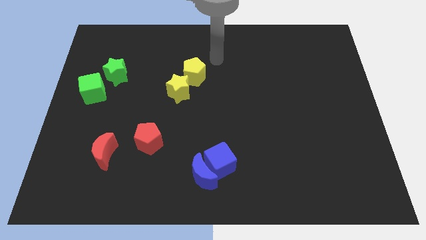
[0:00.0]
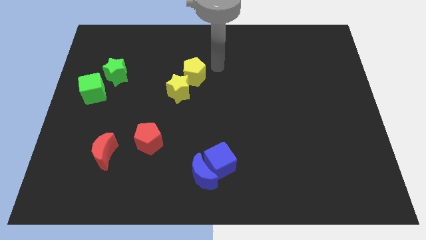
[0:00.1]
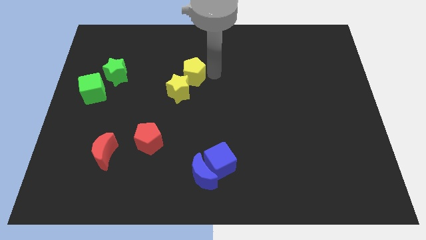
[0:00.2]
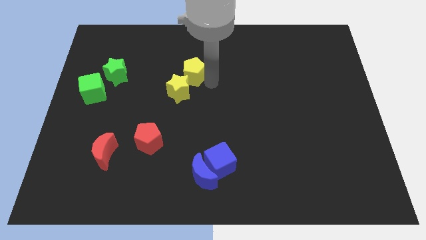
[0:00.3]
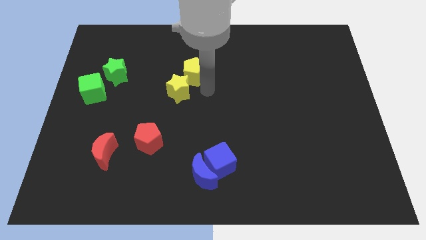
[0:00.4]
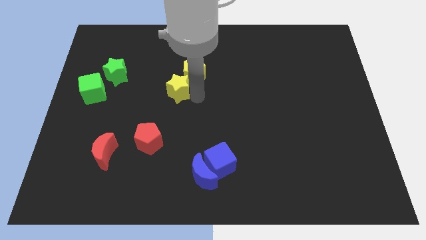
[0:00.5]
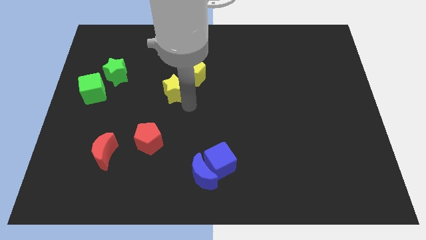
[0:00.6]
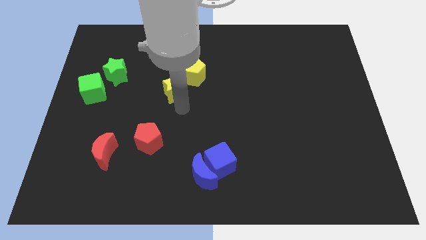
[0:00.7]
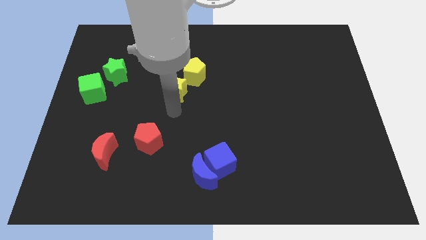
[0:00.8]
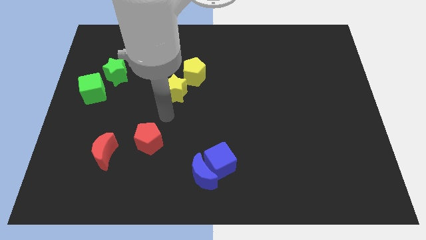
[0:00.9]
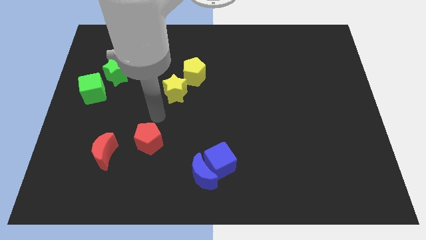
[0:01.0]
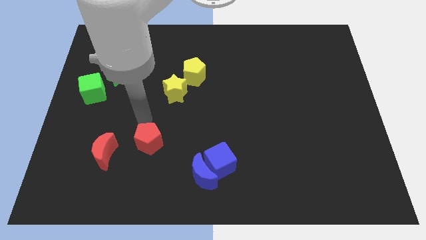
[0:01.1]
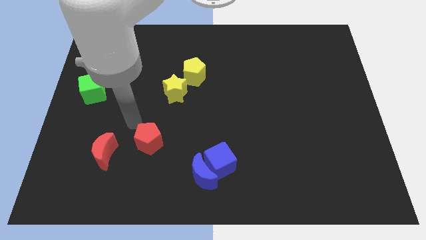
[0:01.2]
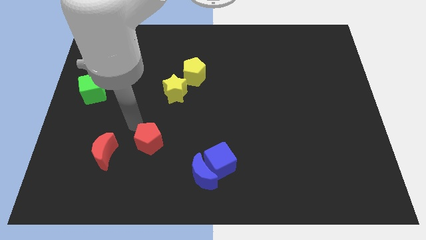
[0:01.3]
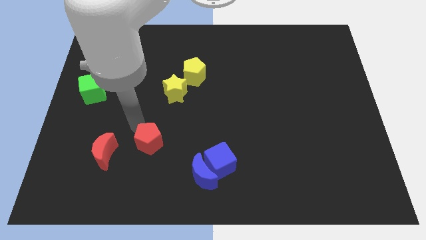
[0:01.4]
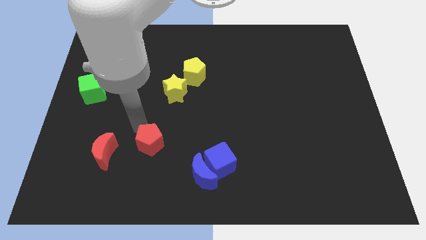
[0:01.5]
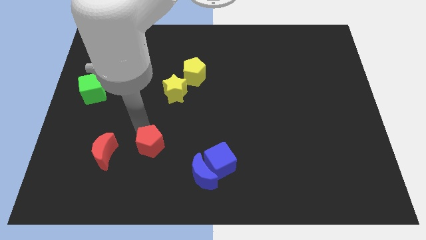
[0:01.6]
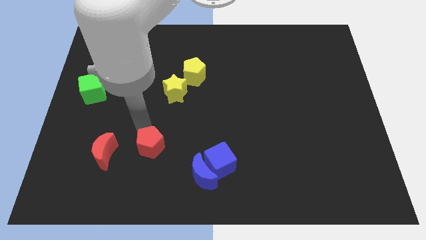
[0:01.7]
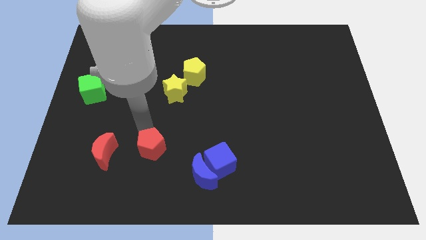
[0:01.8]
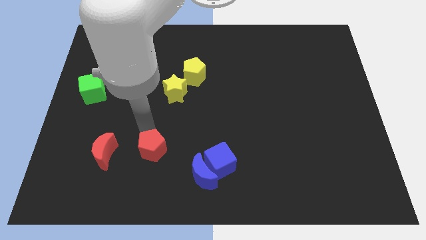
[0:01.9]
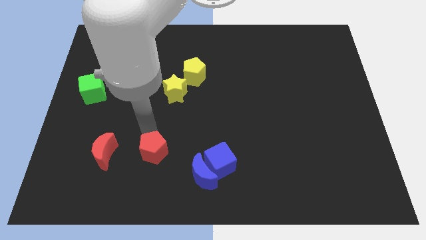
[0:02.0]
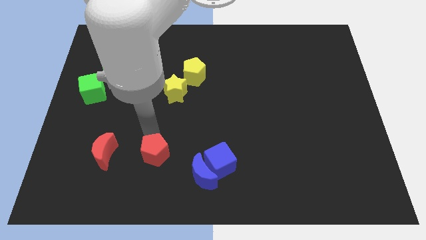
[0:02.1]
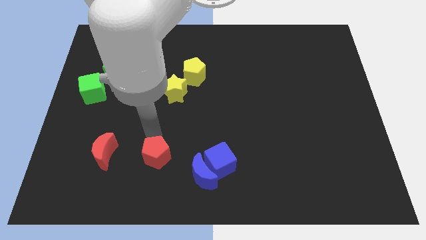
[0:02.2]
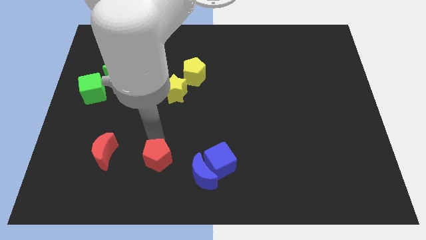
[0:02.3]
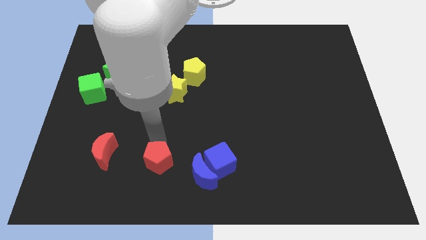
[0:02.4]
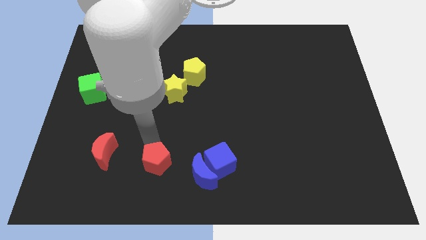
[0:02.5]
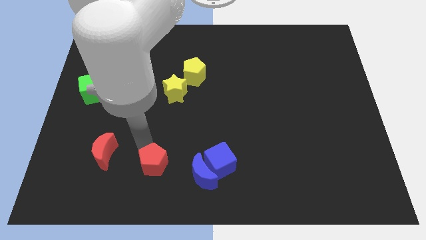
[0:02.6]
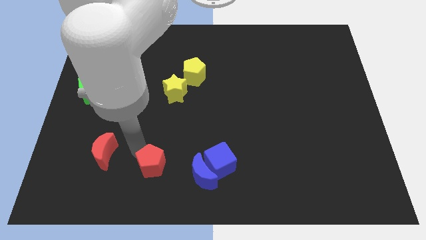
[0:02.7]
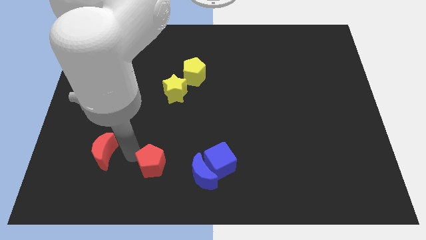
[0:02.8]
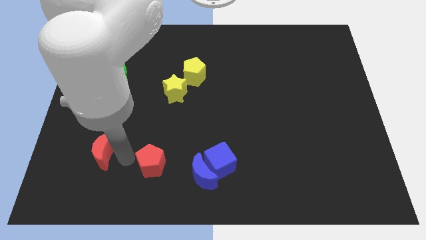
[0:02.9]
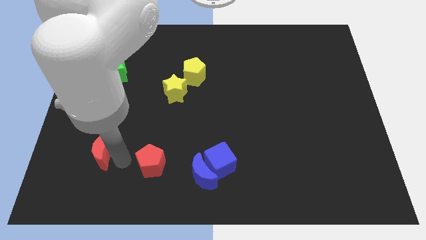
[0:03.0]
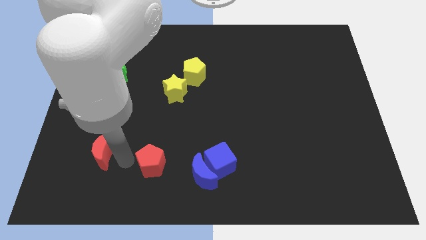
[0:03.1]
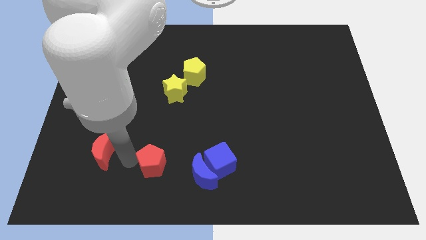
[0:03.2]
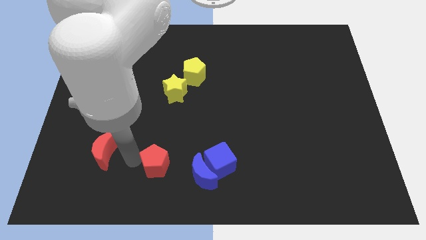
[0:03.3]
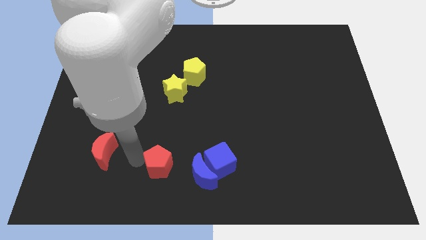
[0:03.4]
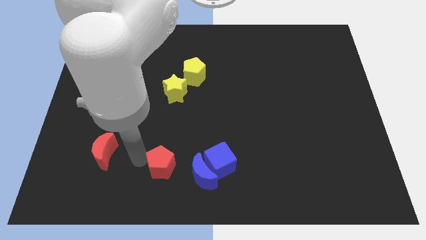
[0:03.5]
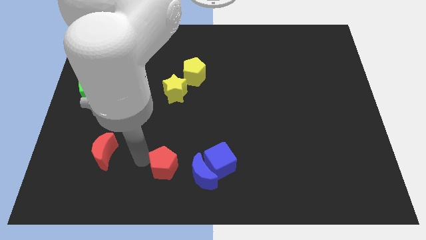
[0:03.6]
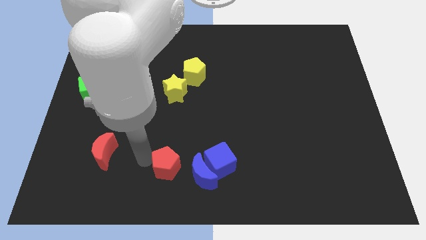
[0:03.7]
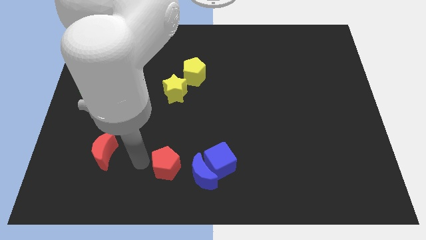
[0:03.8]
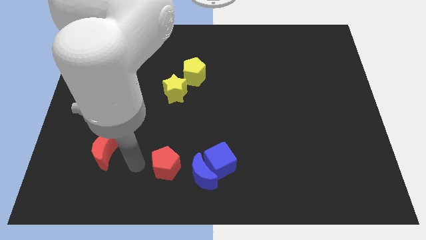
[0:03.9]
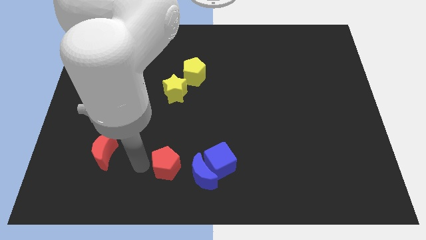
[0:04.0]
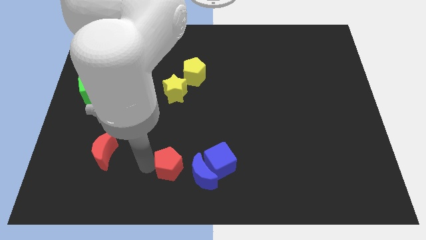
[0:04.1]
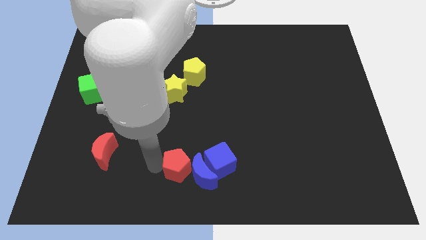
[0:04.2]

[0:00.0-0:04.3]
slide the red pentagon towards the blue moon

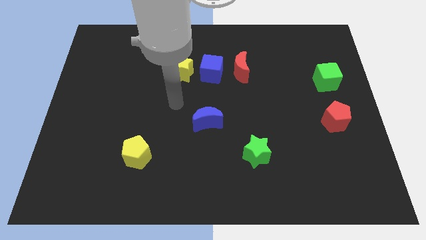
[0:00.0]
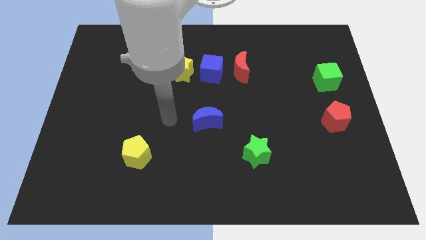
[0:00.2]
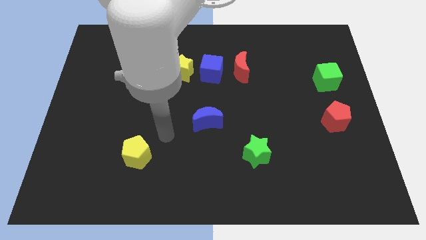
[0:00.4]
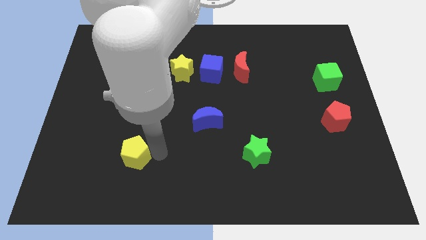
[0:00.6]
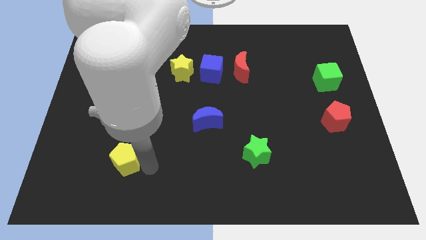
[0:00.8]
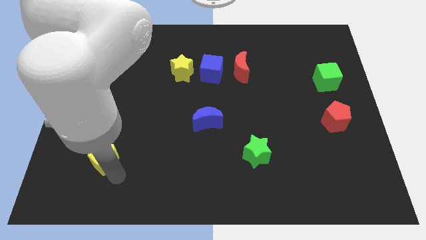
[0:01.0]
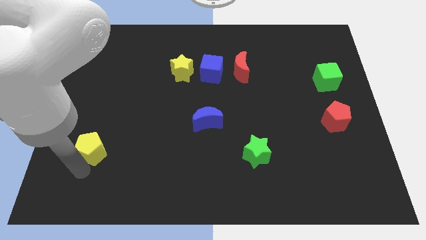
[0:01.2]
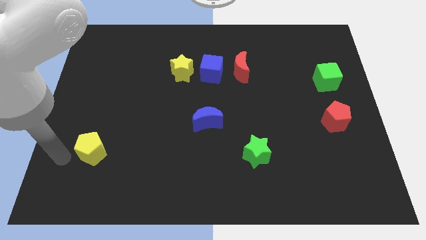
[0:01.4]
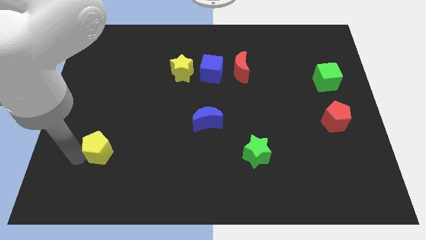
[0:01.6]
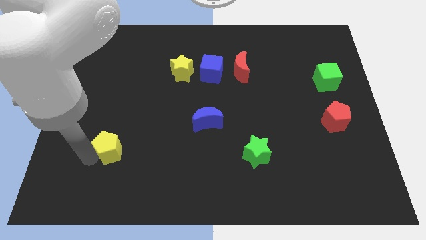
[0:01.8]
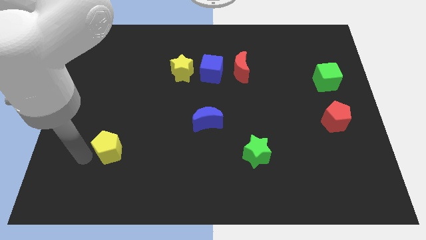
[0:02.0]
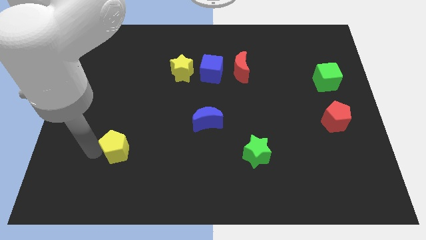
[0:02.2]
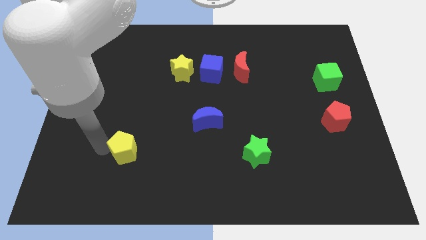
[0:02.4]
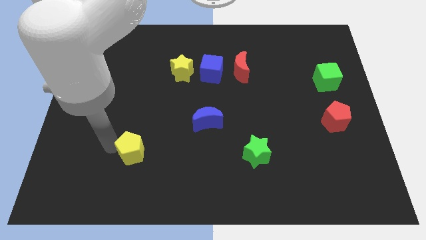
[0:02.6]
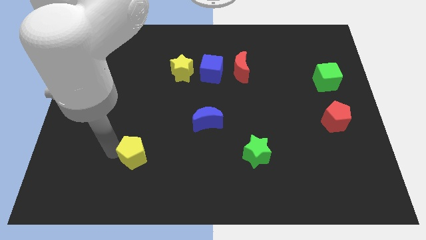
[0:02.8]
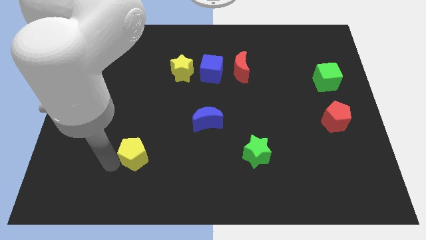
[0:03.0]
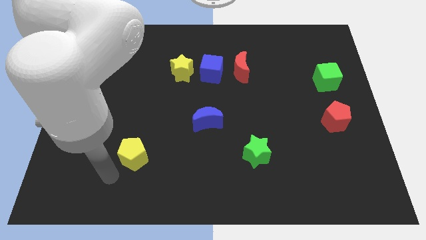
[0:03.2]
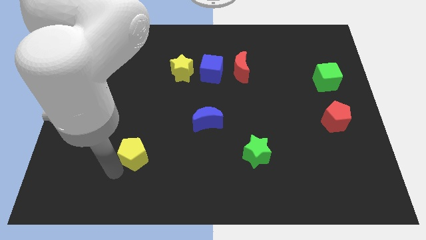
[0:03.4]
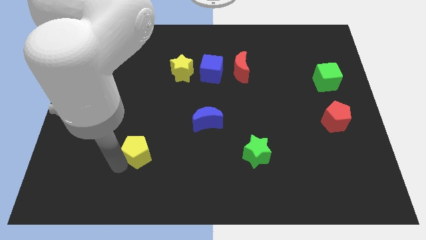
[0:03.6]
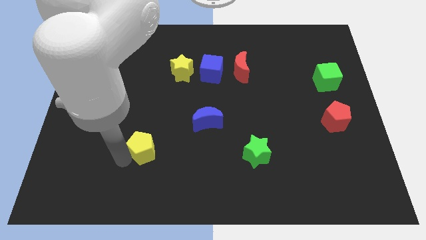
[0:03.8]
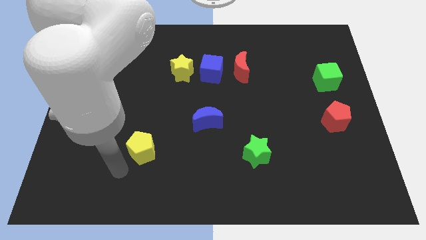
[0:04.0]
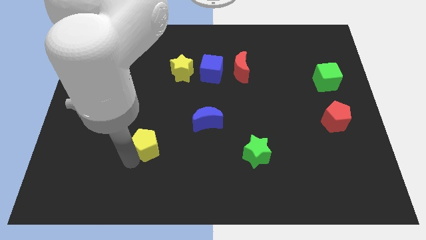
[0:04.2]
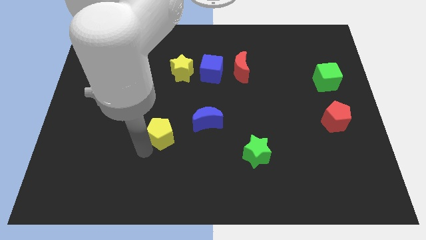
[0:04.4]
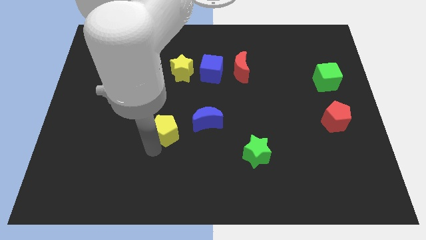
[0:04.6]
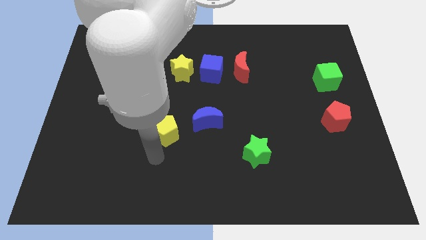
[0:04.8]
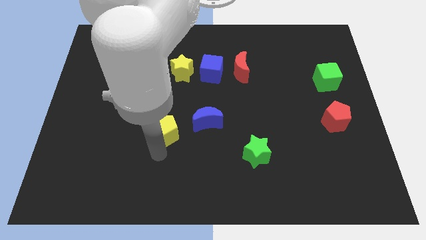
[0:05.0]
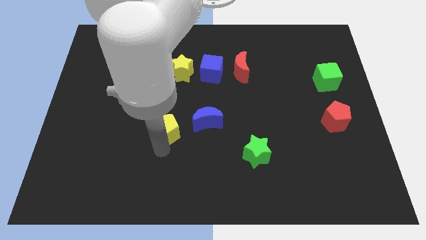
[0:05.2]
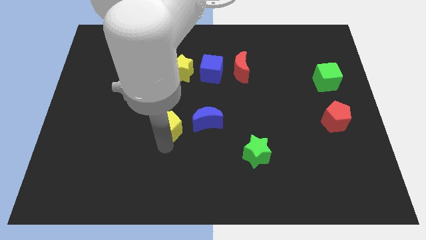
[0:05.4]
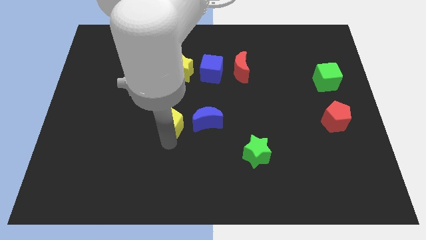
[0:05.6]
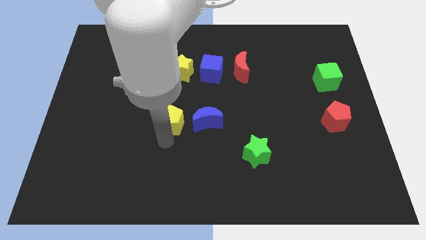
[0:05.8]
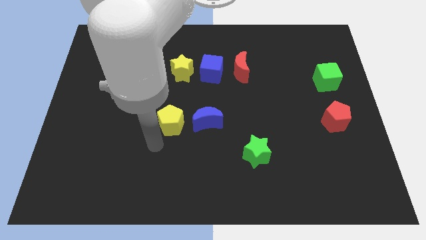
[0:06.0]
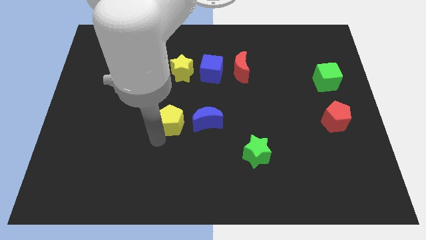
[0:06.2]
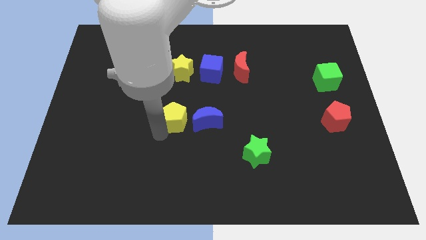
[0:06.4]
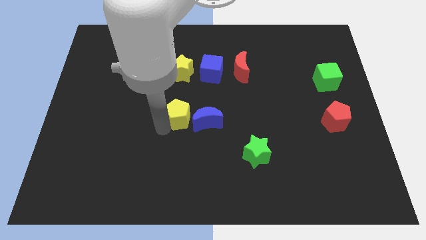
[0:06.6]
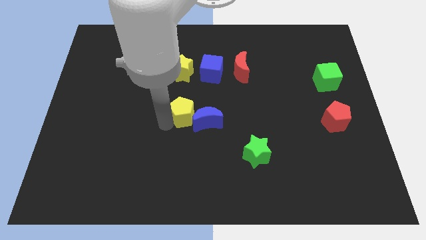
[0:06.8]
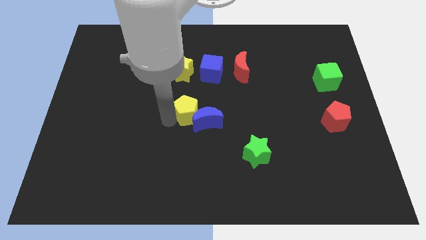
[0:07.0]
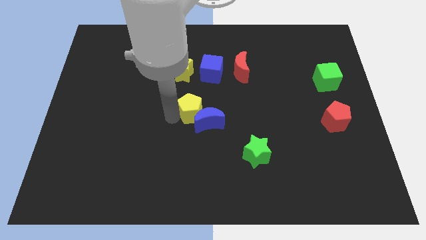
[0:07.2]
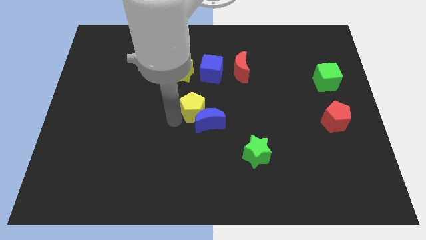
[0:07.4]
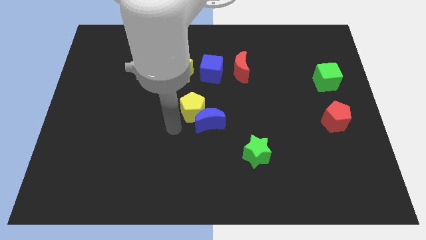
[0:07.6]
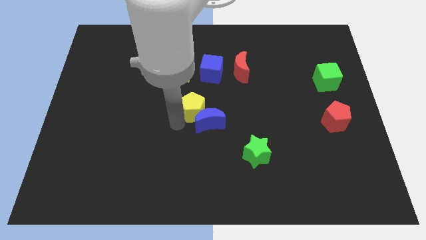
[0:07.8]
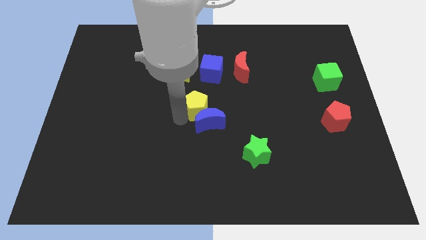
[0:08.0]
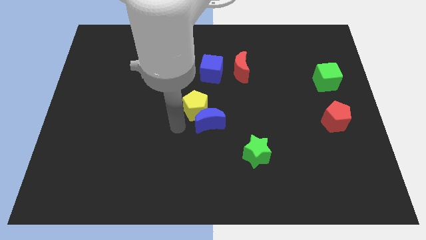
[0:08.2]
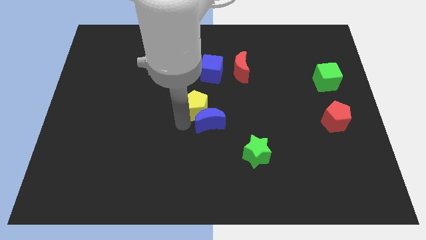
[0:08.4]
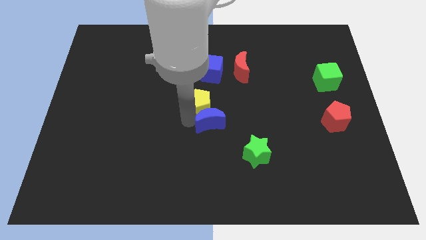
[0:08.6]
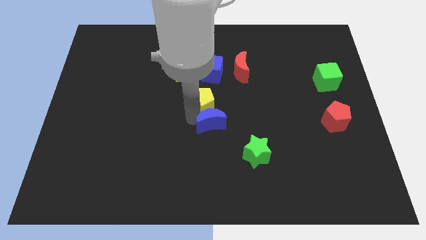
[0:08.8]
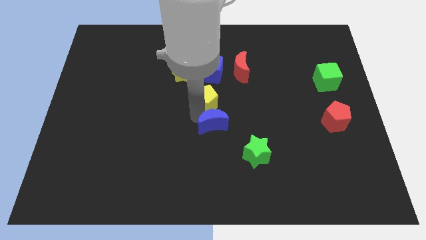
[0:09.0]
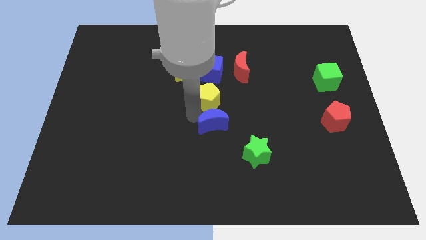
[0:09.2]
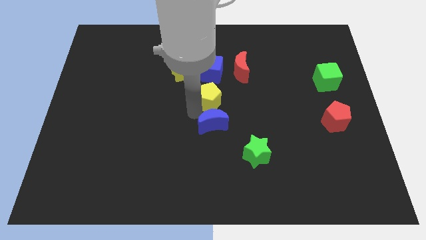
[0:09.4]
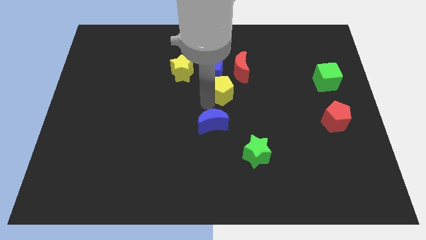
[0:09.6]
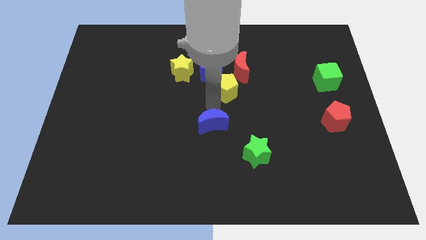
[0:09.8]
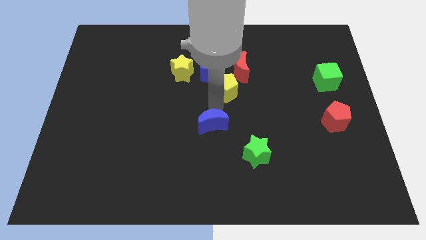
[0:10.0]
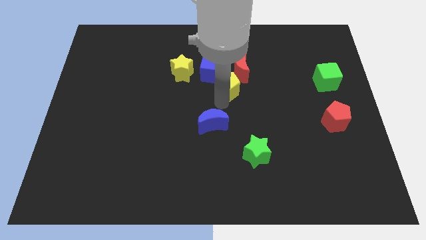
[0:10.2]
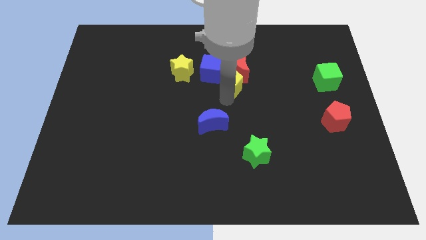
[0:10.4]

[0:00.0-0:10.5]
put the yellow pentagon to the red moon
